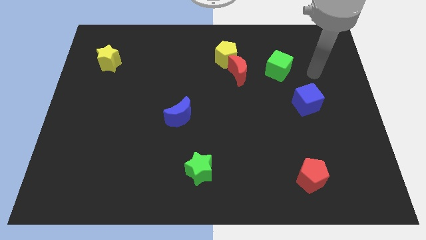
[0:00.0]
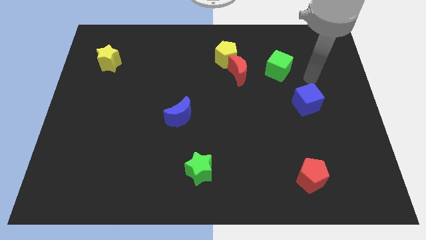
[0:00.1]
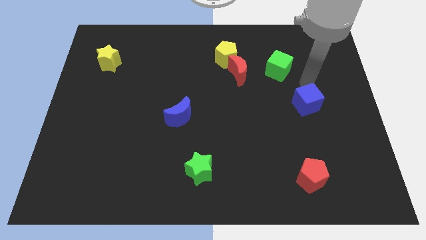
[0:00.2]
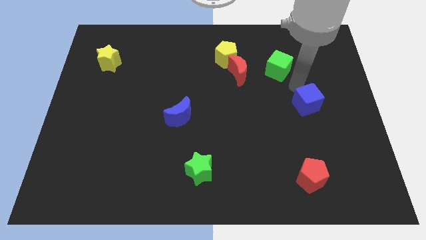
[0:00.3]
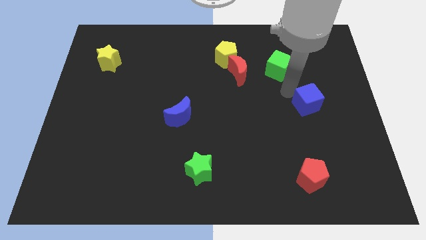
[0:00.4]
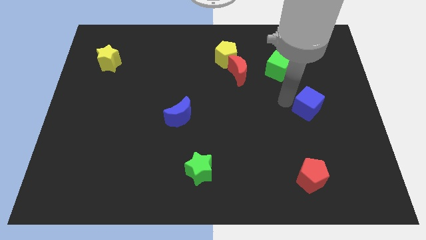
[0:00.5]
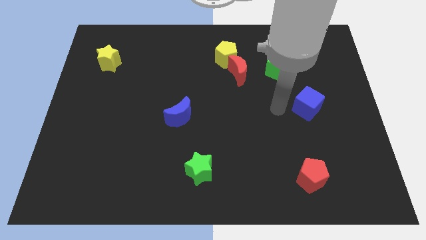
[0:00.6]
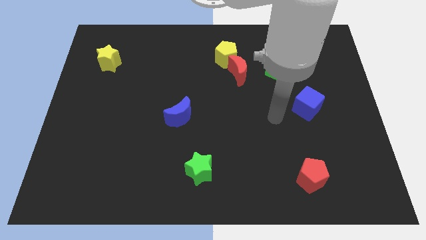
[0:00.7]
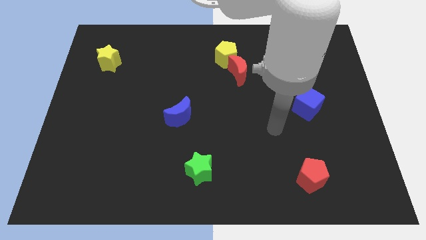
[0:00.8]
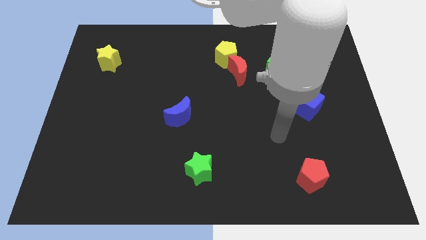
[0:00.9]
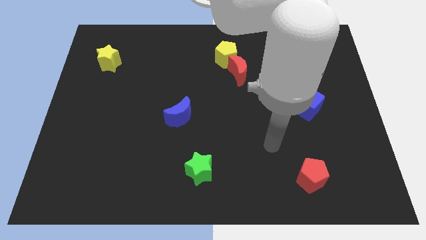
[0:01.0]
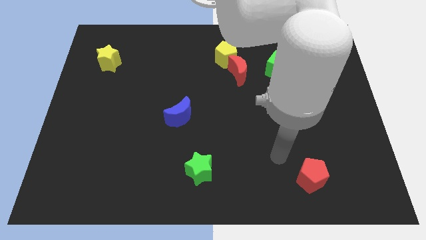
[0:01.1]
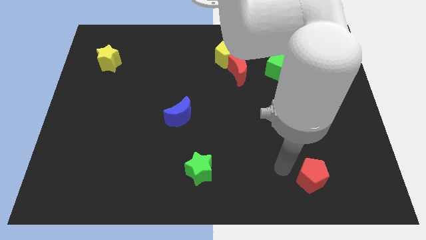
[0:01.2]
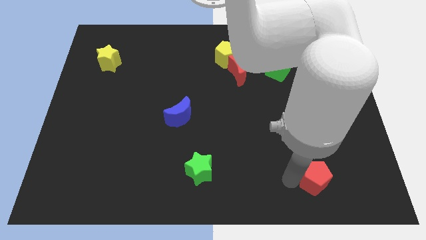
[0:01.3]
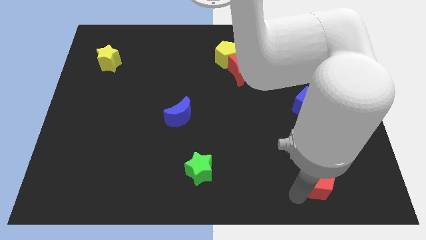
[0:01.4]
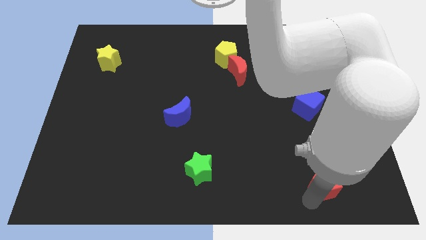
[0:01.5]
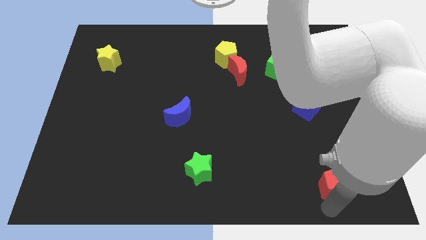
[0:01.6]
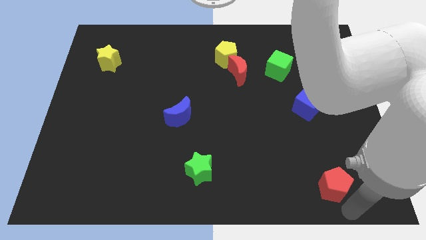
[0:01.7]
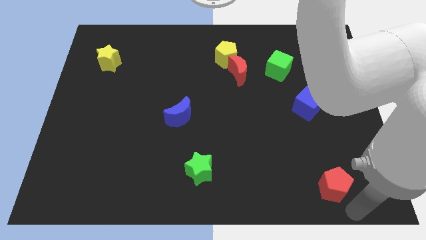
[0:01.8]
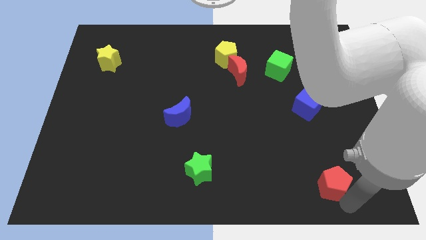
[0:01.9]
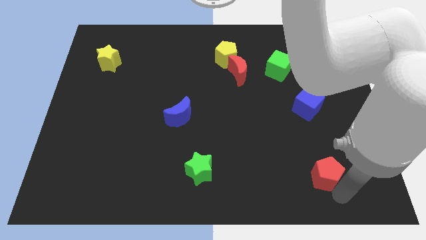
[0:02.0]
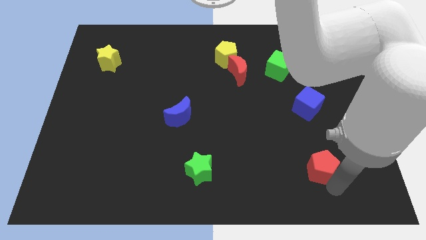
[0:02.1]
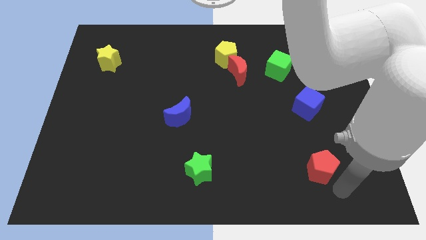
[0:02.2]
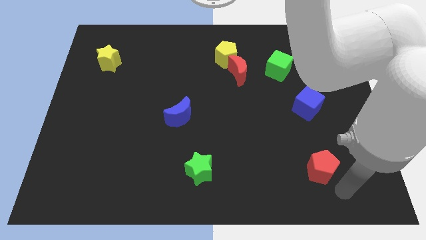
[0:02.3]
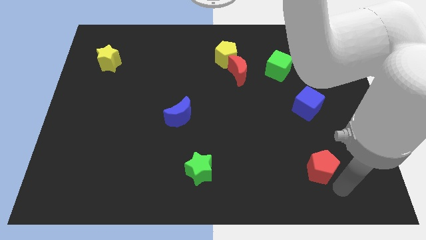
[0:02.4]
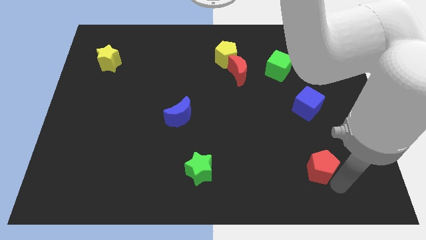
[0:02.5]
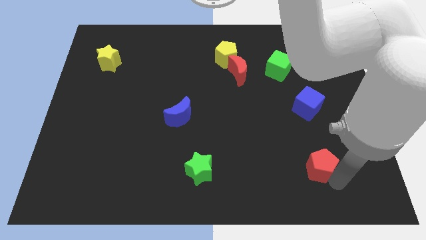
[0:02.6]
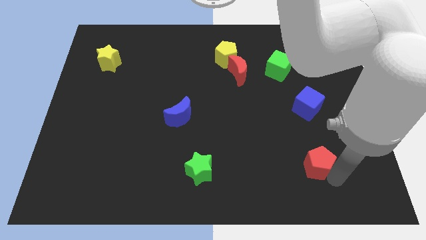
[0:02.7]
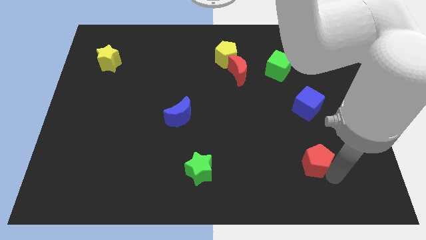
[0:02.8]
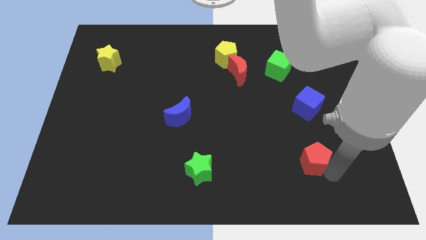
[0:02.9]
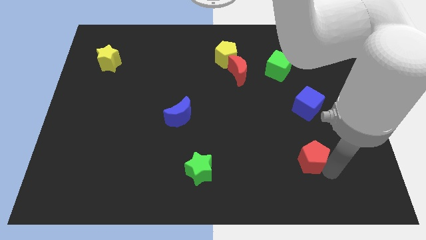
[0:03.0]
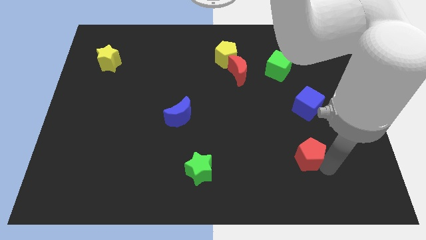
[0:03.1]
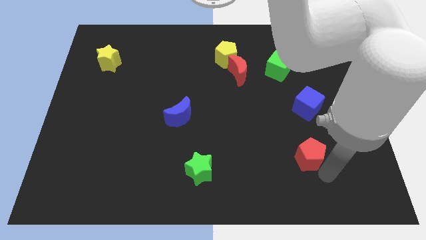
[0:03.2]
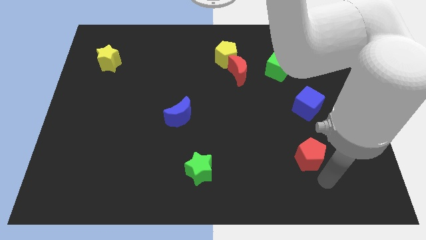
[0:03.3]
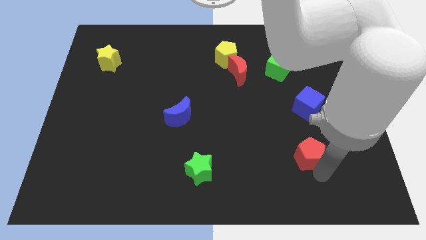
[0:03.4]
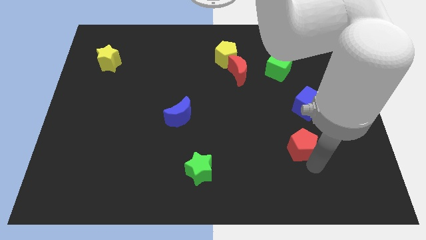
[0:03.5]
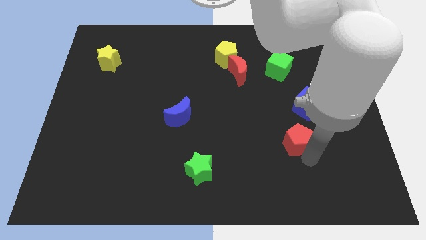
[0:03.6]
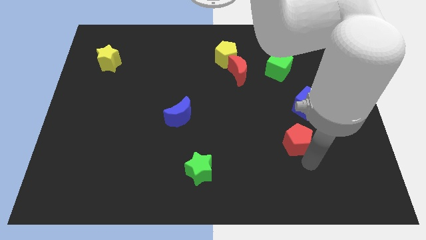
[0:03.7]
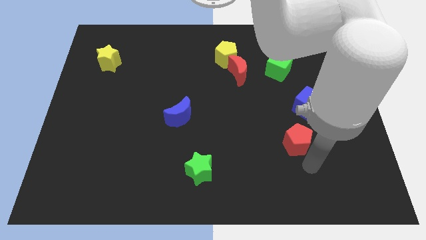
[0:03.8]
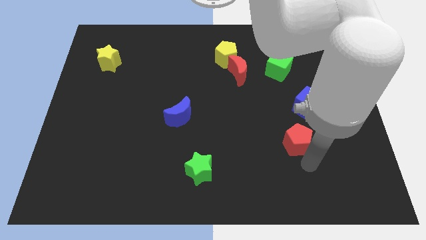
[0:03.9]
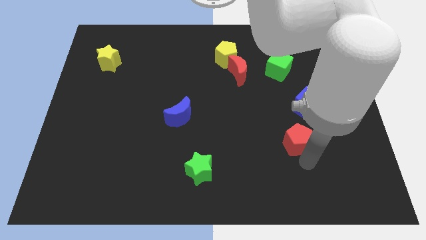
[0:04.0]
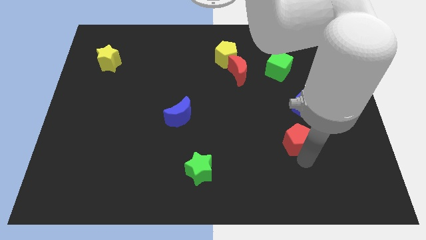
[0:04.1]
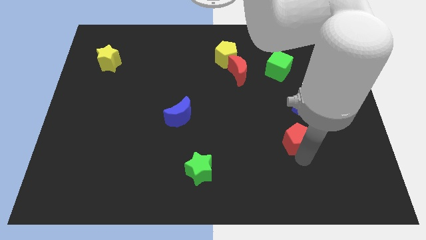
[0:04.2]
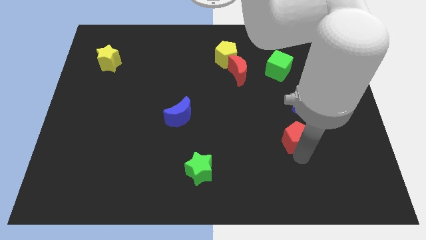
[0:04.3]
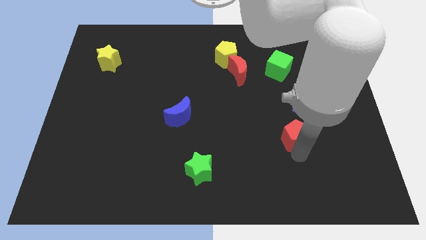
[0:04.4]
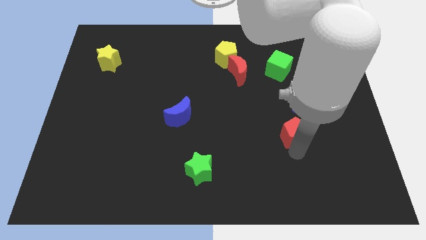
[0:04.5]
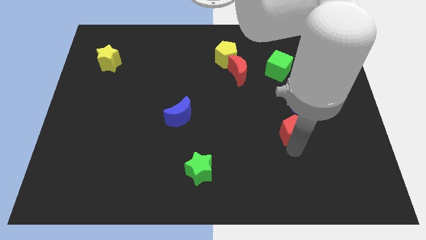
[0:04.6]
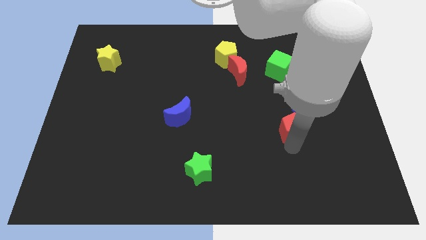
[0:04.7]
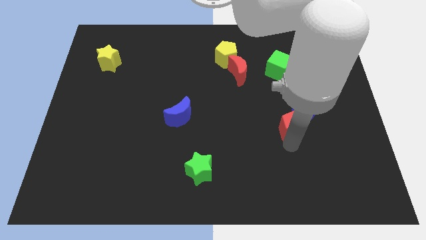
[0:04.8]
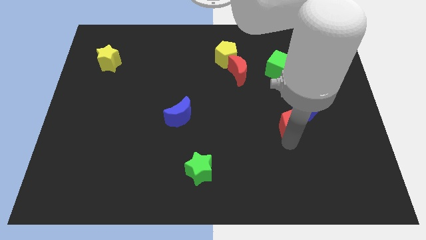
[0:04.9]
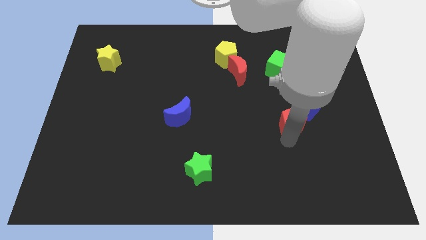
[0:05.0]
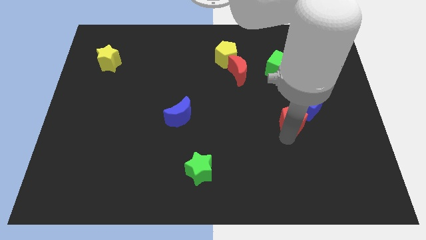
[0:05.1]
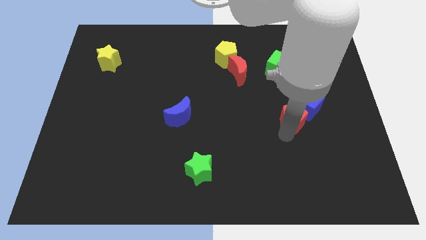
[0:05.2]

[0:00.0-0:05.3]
slide the red pentagon below the green cube

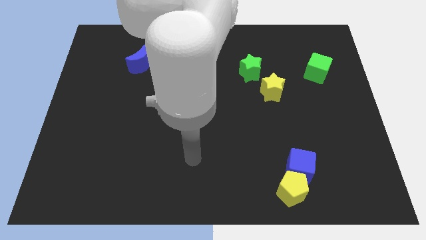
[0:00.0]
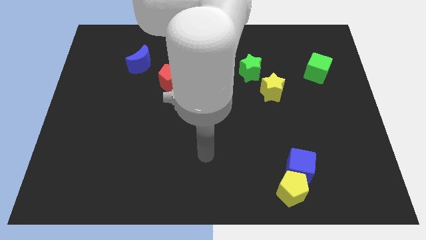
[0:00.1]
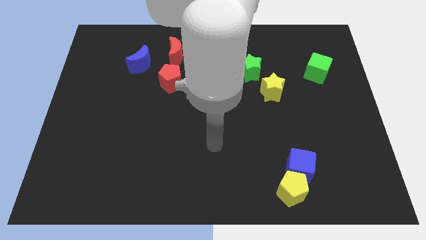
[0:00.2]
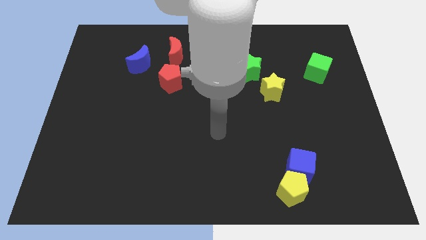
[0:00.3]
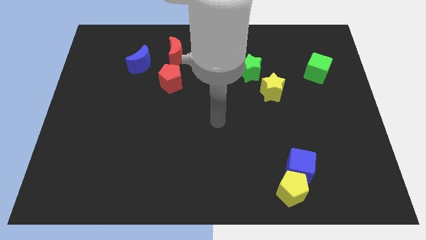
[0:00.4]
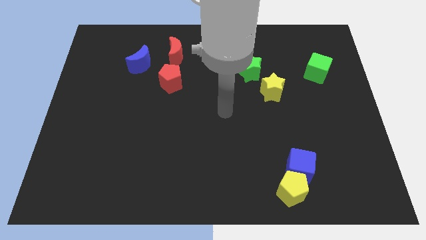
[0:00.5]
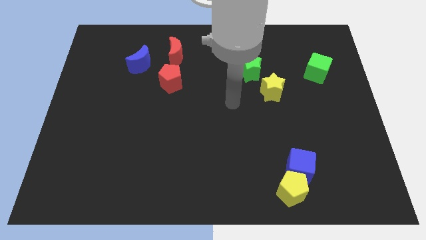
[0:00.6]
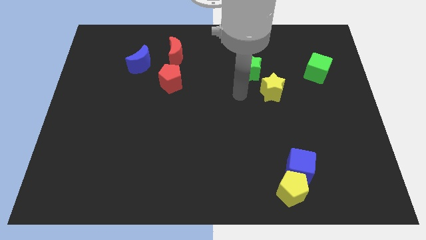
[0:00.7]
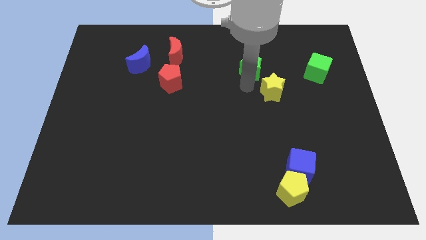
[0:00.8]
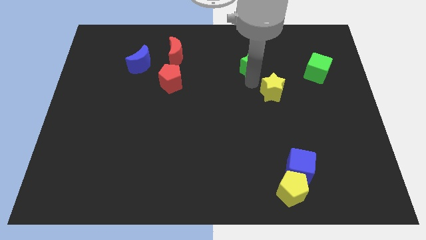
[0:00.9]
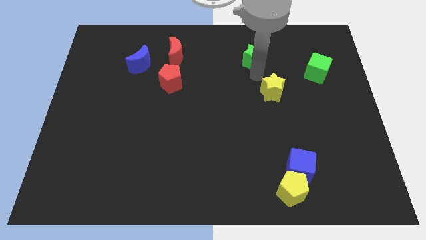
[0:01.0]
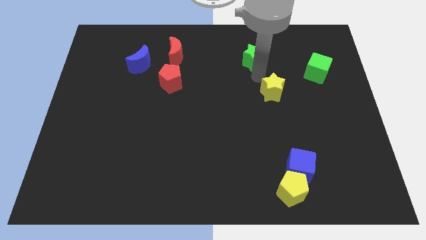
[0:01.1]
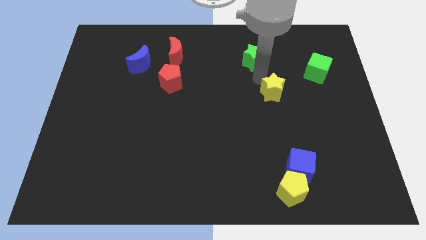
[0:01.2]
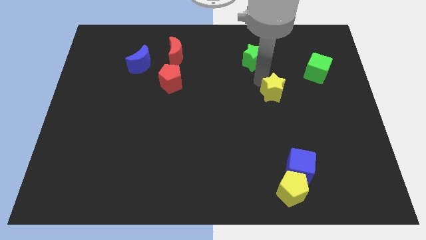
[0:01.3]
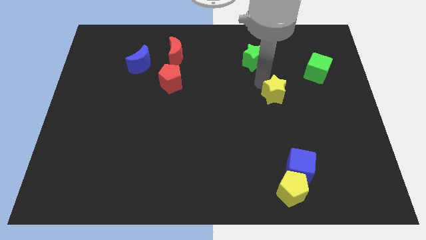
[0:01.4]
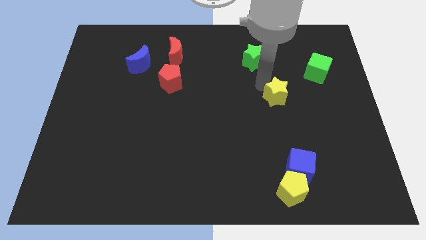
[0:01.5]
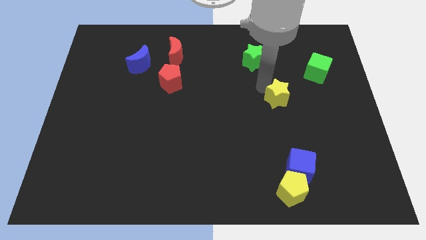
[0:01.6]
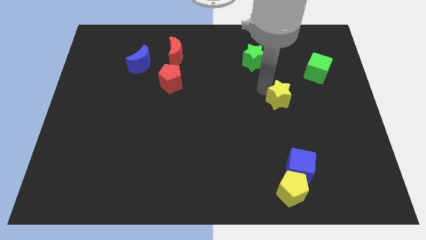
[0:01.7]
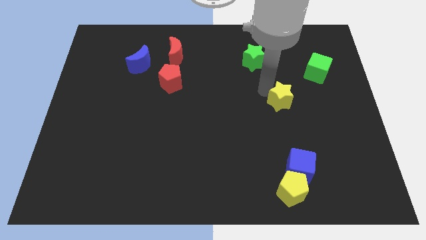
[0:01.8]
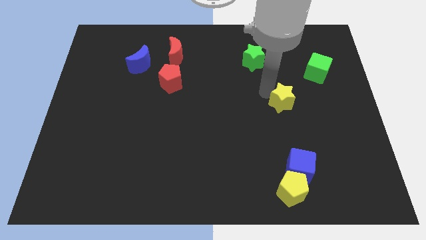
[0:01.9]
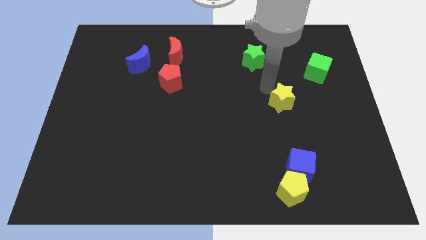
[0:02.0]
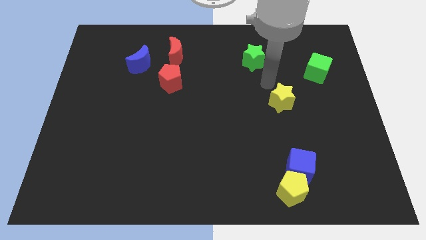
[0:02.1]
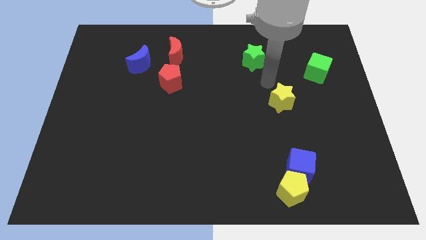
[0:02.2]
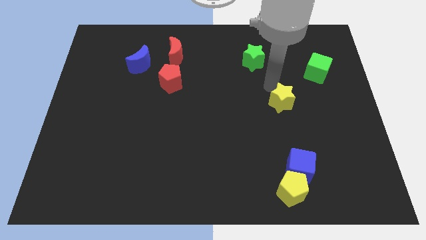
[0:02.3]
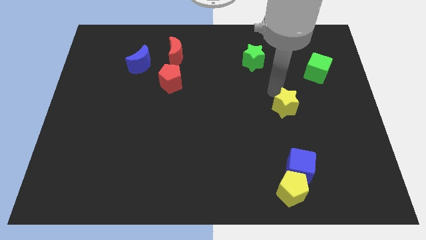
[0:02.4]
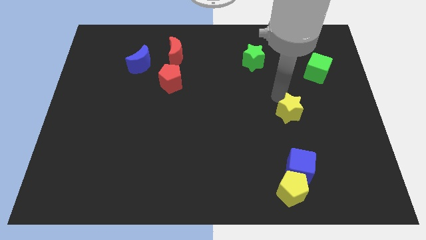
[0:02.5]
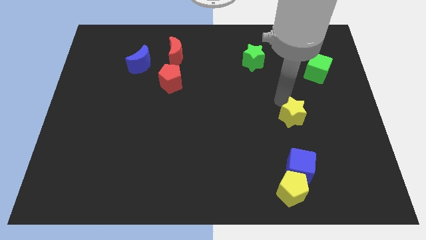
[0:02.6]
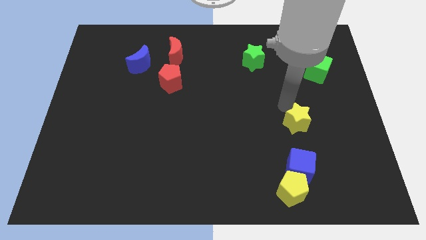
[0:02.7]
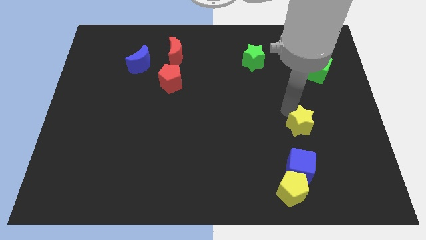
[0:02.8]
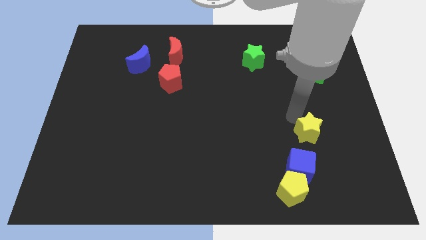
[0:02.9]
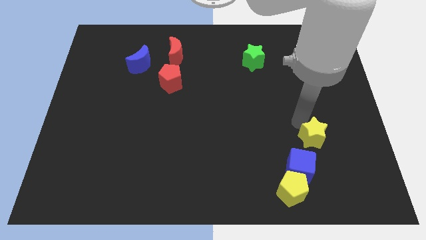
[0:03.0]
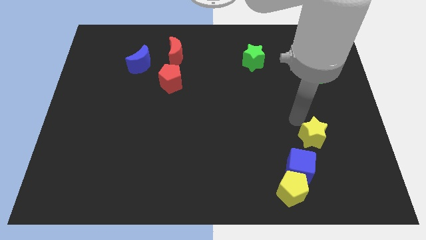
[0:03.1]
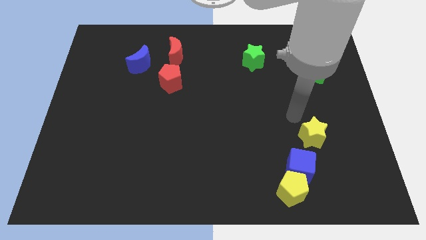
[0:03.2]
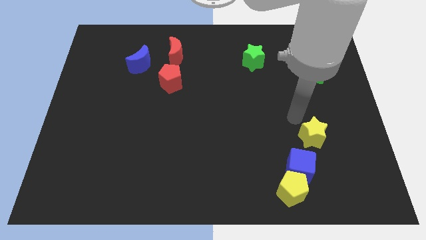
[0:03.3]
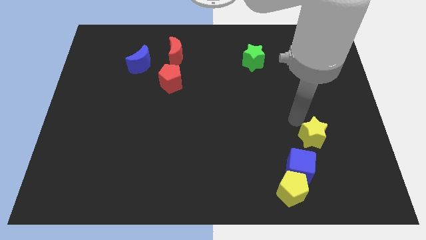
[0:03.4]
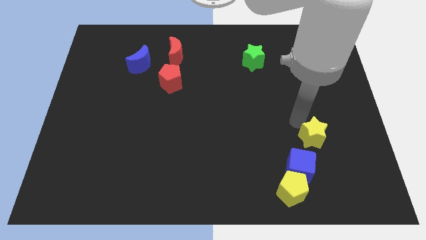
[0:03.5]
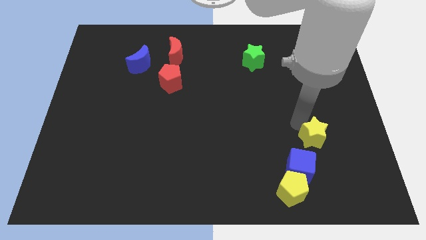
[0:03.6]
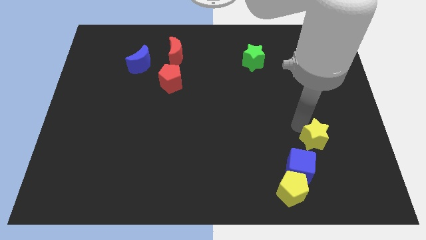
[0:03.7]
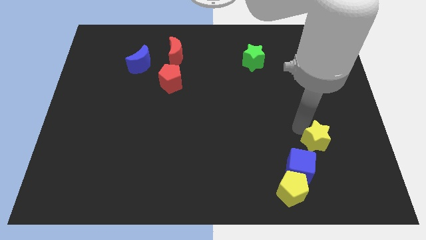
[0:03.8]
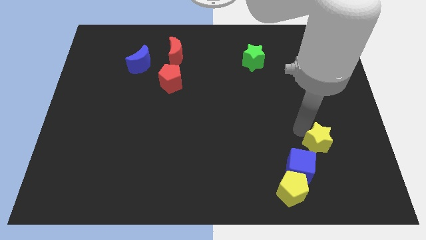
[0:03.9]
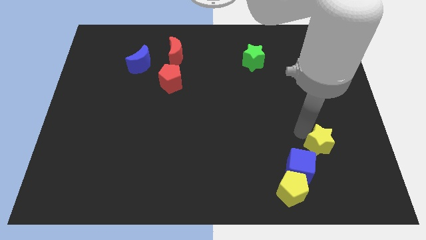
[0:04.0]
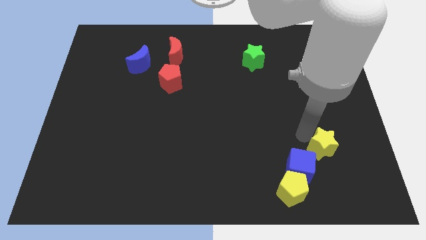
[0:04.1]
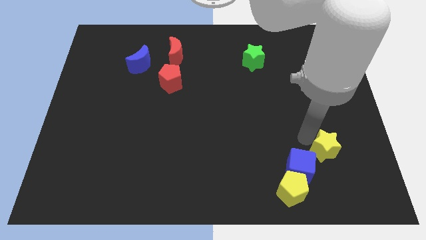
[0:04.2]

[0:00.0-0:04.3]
put the yellow star right of the blue cube
